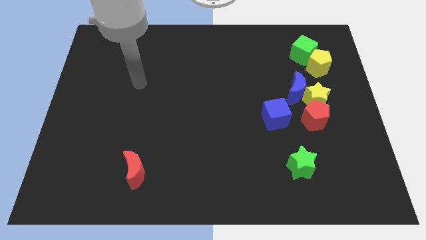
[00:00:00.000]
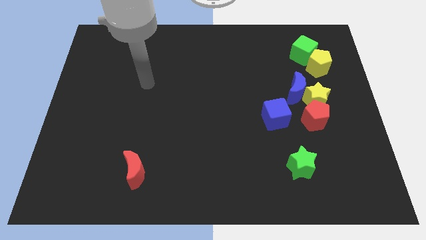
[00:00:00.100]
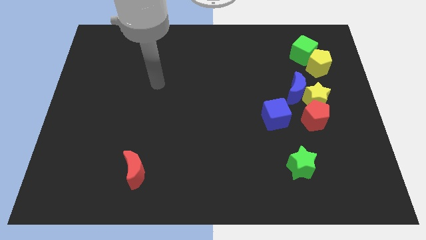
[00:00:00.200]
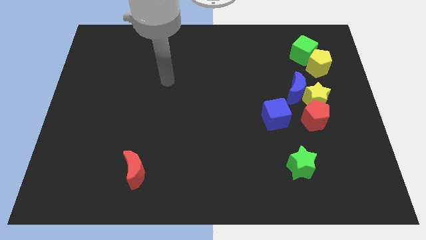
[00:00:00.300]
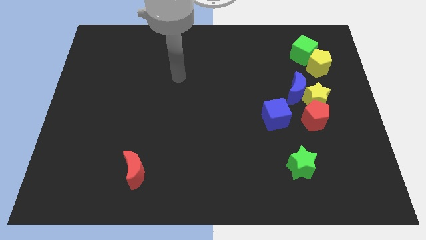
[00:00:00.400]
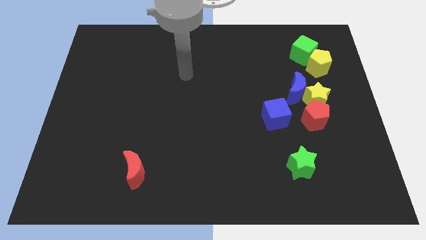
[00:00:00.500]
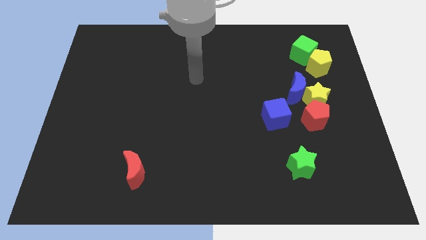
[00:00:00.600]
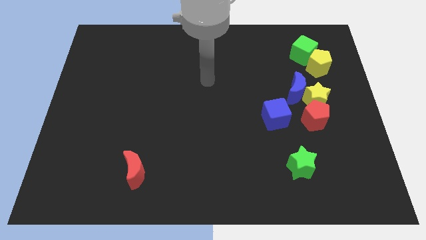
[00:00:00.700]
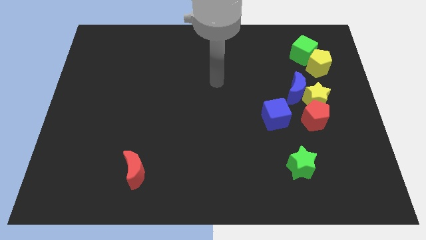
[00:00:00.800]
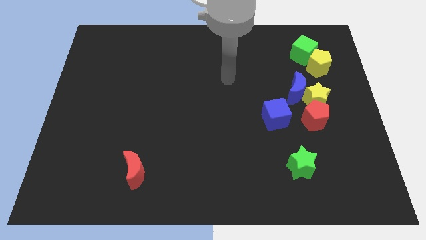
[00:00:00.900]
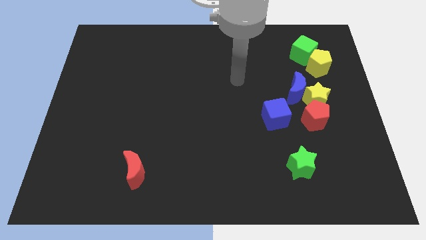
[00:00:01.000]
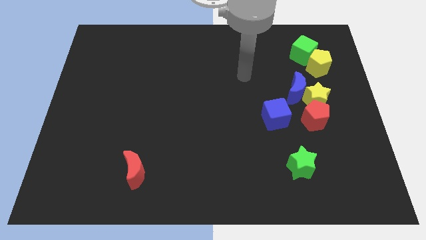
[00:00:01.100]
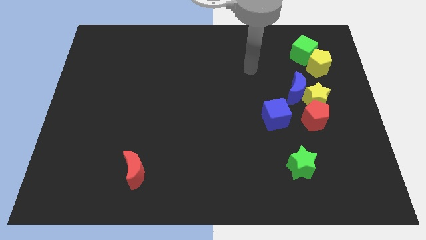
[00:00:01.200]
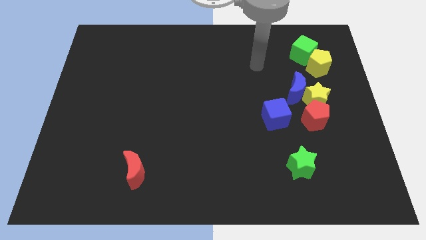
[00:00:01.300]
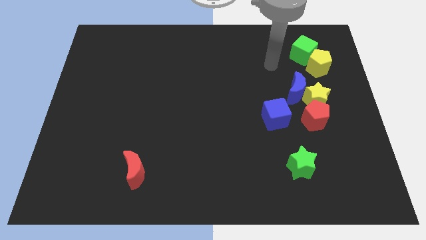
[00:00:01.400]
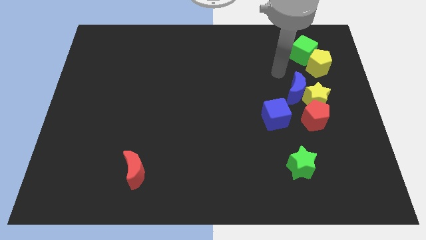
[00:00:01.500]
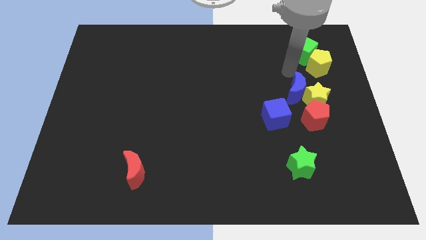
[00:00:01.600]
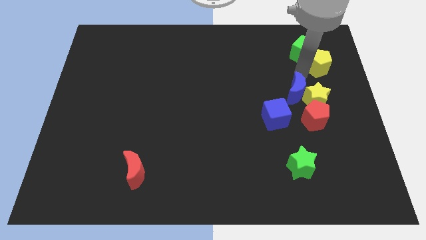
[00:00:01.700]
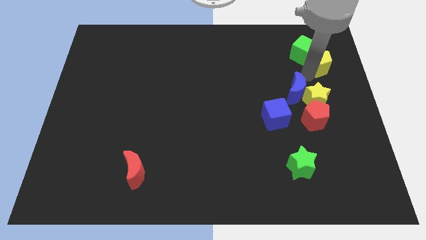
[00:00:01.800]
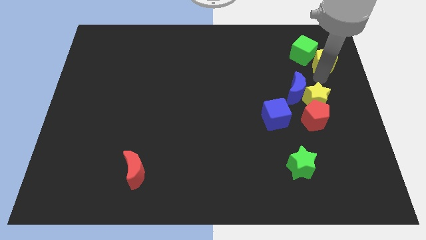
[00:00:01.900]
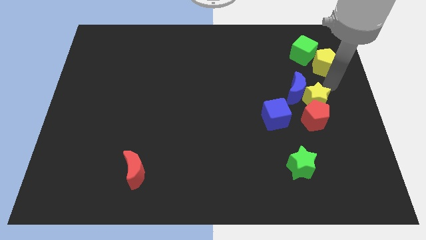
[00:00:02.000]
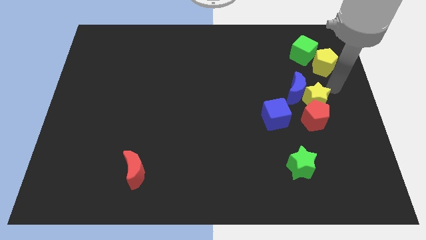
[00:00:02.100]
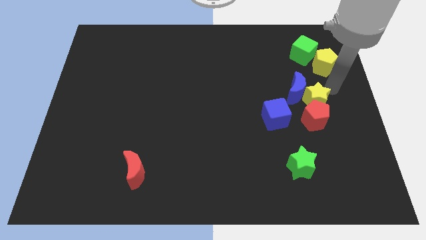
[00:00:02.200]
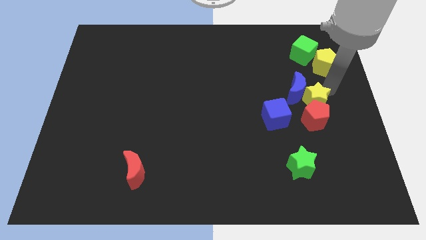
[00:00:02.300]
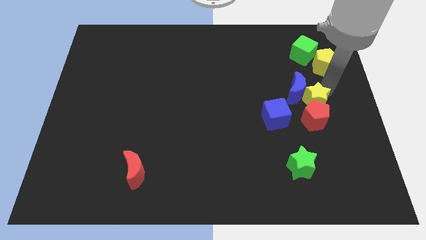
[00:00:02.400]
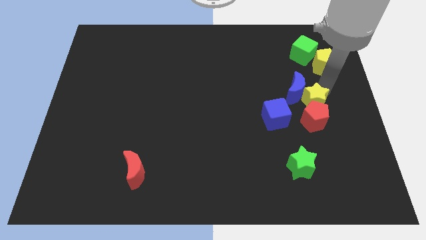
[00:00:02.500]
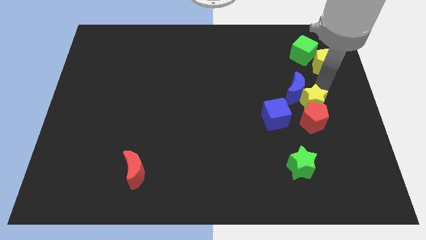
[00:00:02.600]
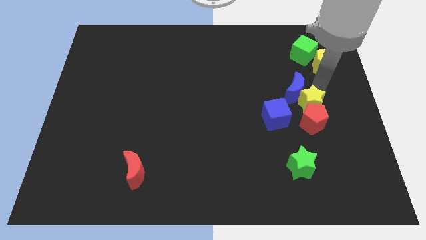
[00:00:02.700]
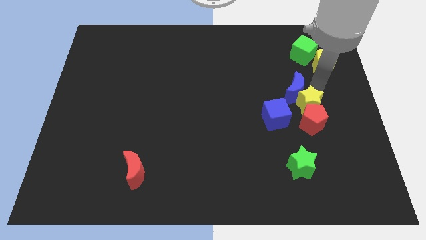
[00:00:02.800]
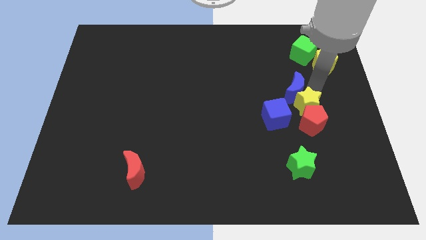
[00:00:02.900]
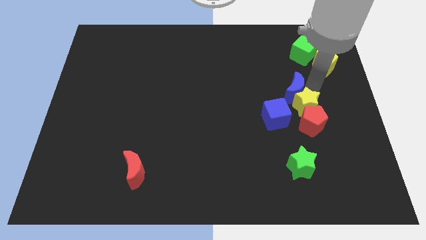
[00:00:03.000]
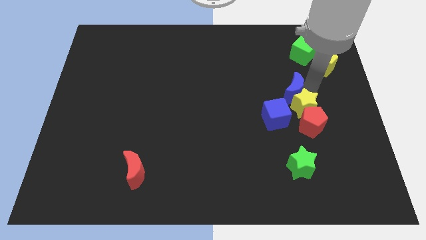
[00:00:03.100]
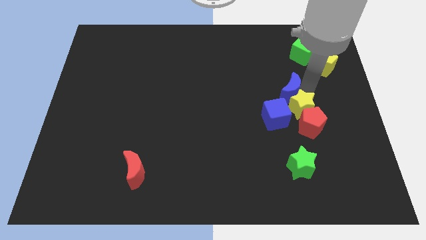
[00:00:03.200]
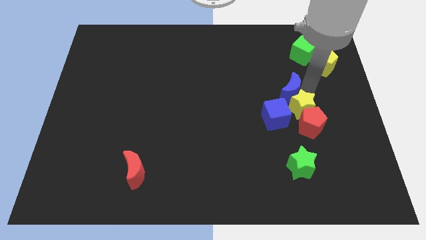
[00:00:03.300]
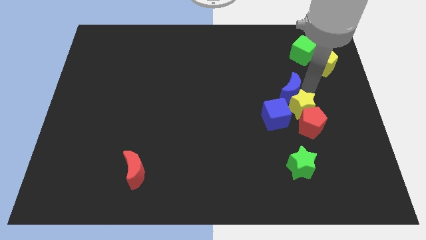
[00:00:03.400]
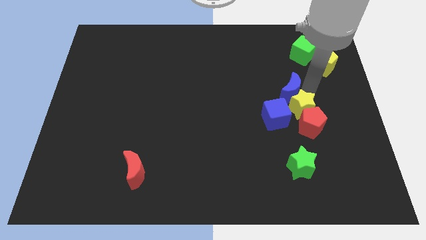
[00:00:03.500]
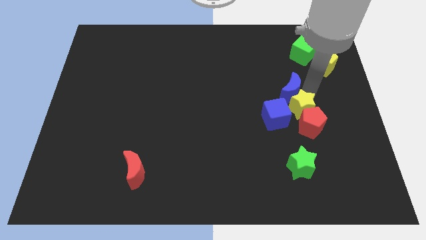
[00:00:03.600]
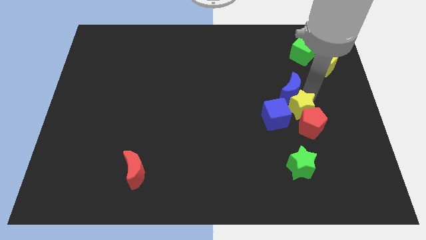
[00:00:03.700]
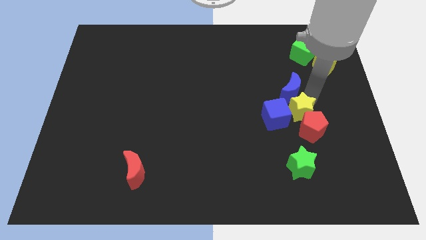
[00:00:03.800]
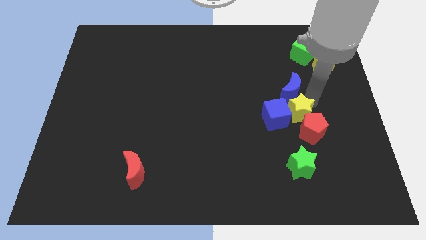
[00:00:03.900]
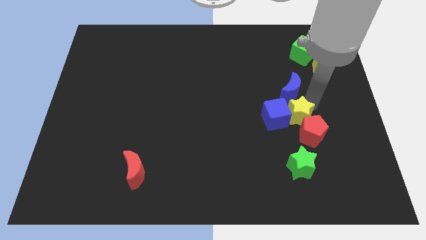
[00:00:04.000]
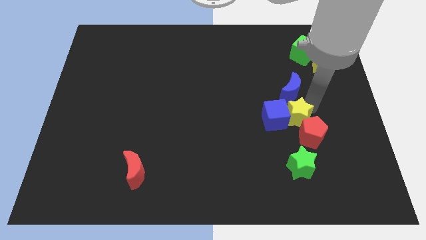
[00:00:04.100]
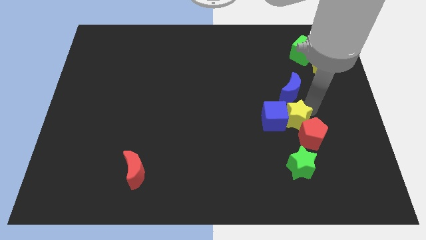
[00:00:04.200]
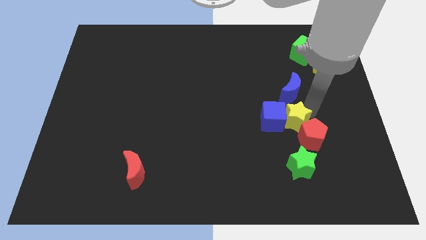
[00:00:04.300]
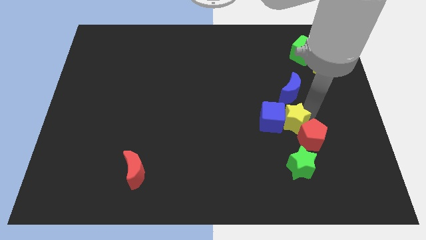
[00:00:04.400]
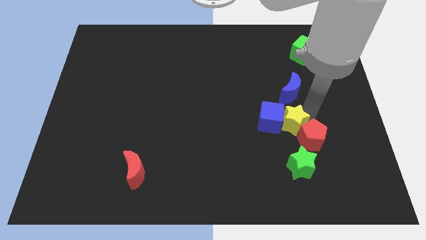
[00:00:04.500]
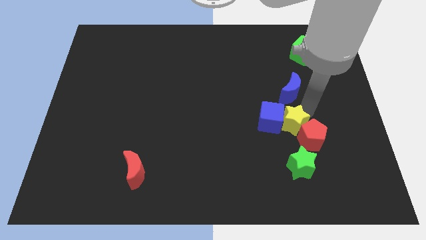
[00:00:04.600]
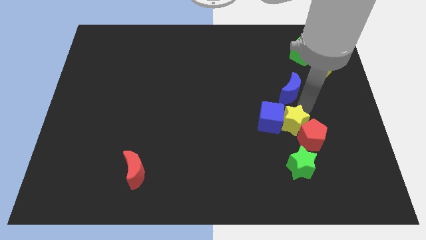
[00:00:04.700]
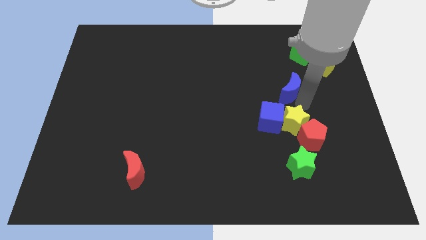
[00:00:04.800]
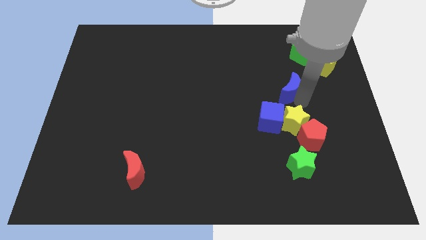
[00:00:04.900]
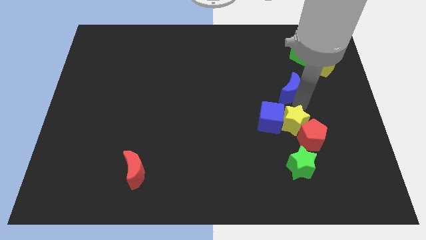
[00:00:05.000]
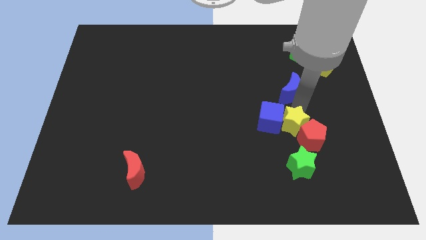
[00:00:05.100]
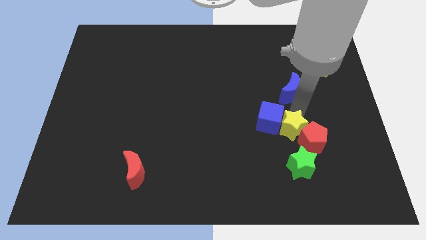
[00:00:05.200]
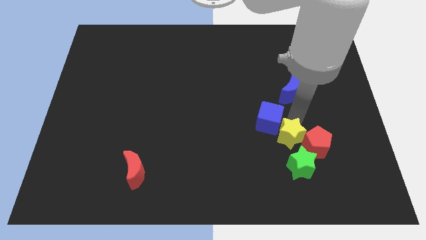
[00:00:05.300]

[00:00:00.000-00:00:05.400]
move the yellow star to the bottom side of the blue cube

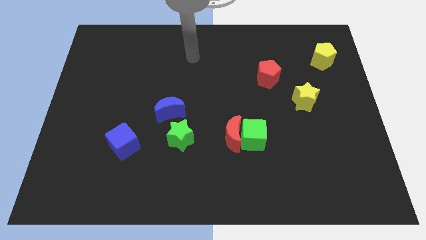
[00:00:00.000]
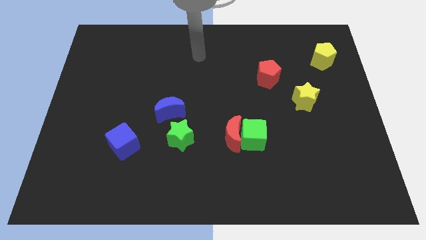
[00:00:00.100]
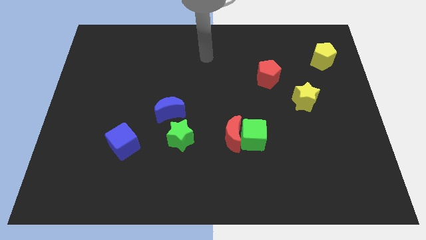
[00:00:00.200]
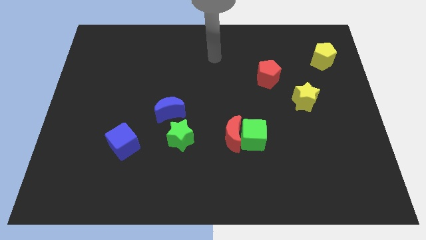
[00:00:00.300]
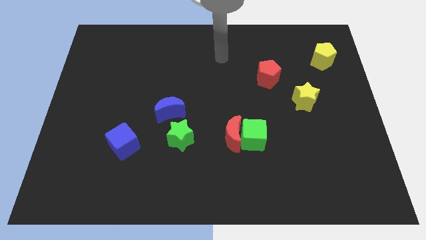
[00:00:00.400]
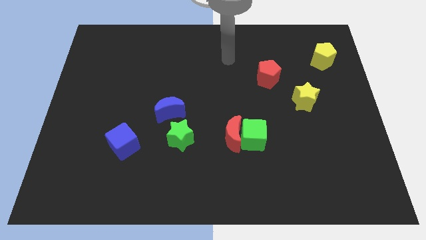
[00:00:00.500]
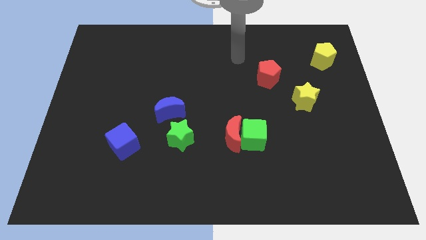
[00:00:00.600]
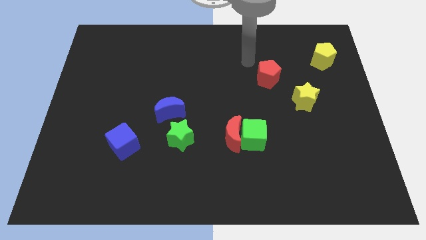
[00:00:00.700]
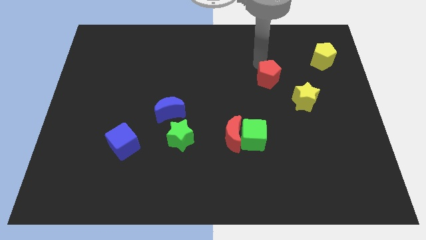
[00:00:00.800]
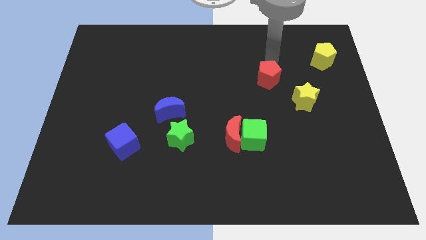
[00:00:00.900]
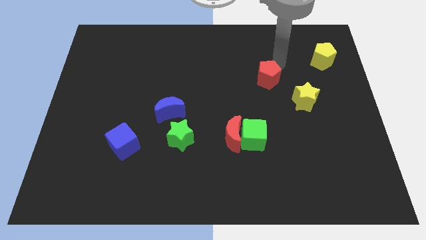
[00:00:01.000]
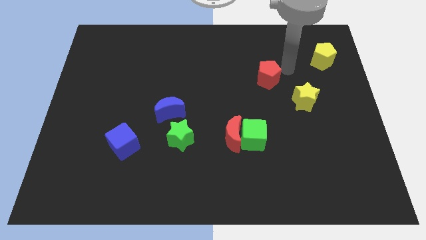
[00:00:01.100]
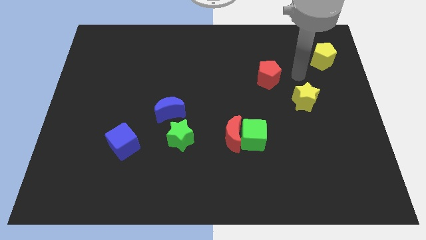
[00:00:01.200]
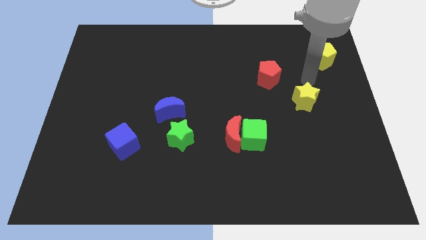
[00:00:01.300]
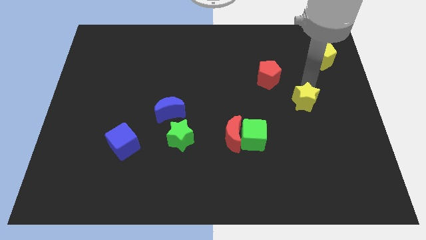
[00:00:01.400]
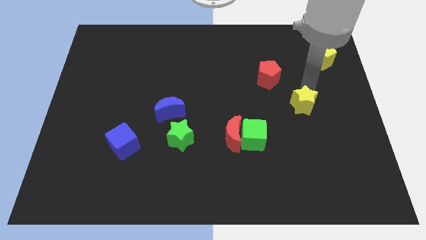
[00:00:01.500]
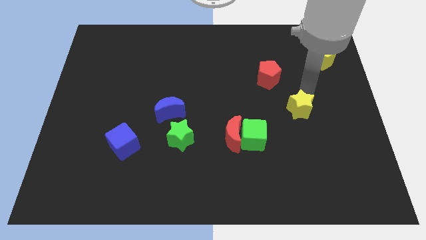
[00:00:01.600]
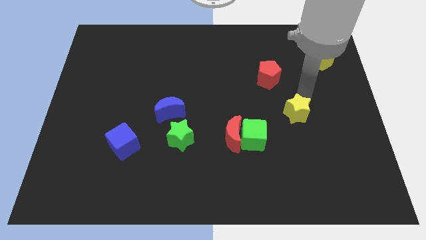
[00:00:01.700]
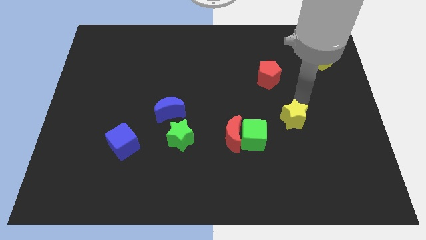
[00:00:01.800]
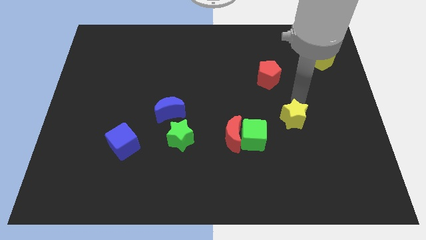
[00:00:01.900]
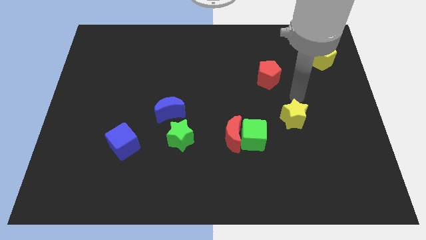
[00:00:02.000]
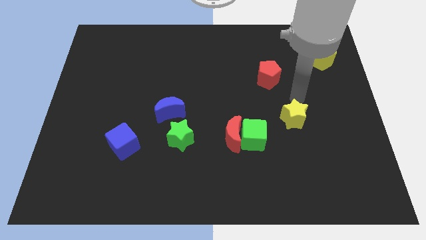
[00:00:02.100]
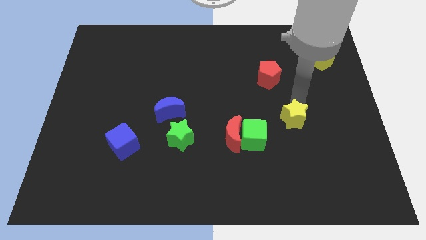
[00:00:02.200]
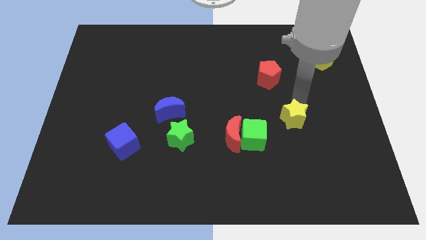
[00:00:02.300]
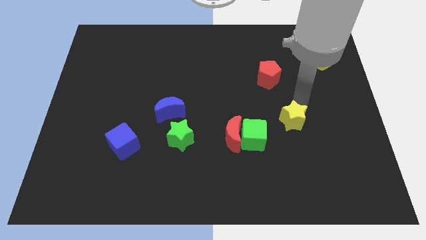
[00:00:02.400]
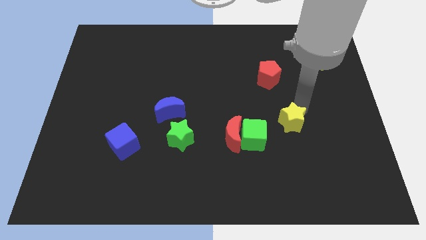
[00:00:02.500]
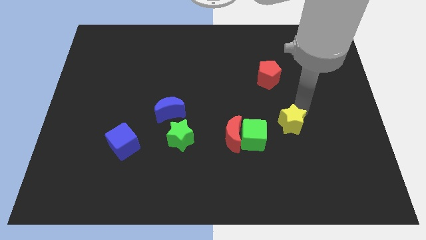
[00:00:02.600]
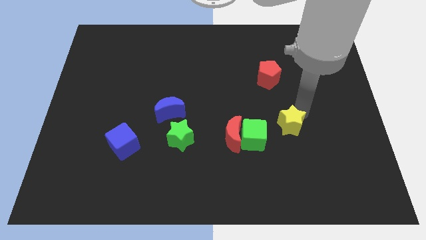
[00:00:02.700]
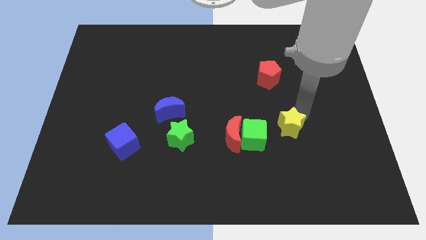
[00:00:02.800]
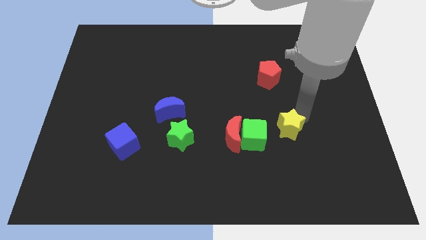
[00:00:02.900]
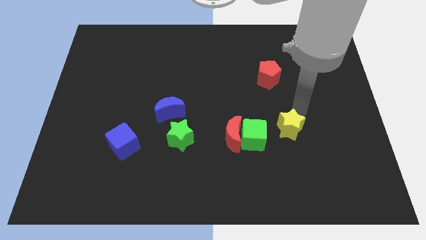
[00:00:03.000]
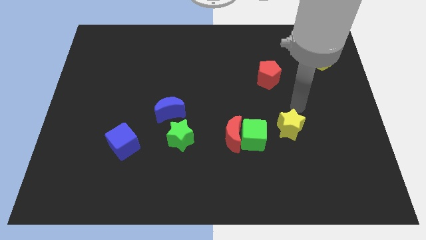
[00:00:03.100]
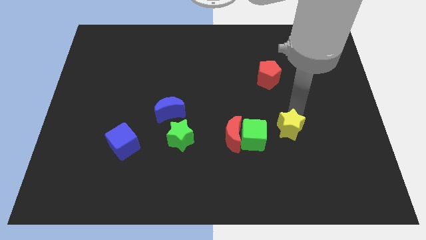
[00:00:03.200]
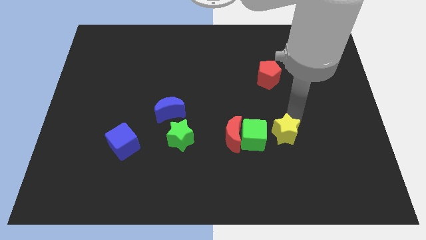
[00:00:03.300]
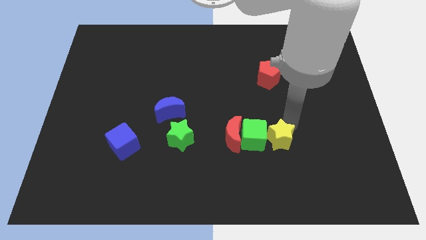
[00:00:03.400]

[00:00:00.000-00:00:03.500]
slide the yellow star to the bottom right side of the green cube
